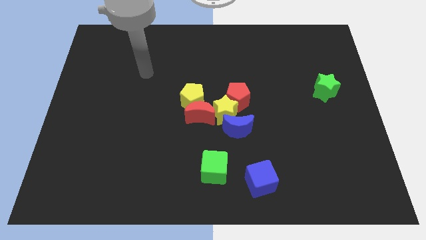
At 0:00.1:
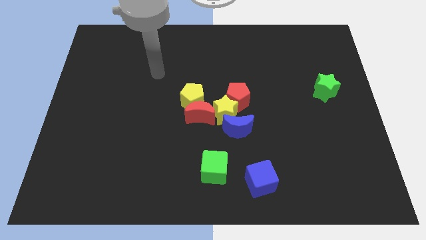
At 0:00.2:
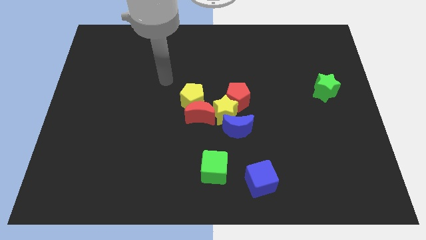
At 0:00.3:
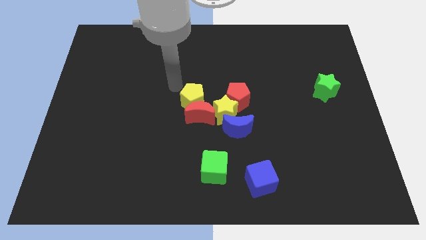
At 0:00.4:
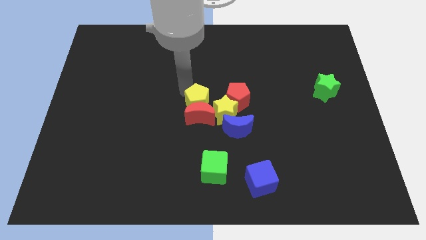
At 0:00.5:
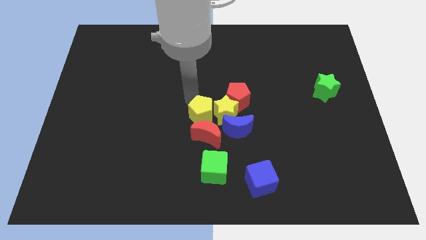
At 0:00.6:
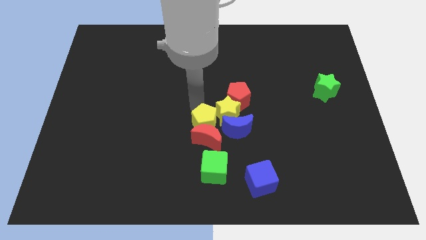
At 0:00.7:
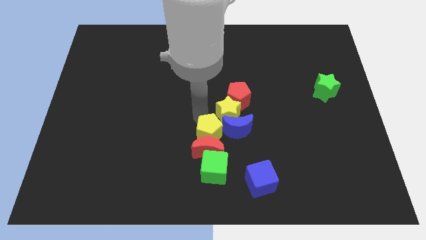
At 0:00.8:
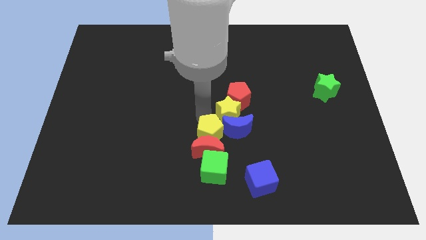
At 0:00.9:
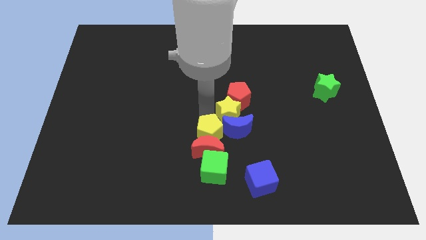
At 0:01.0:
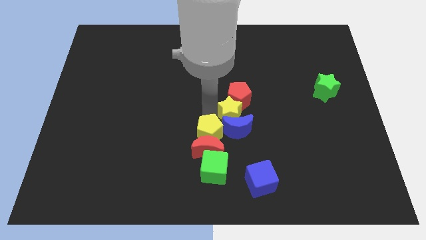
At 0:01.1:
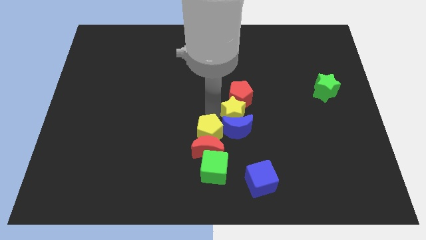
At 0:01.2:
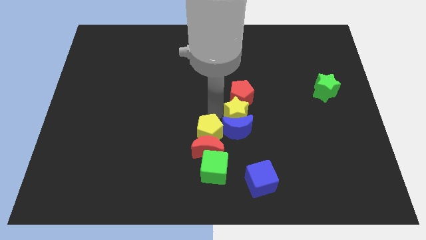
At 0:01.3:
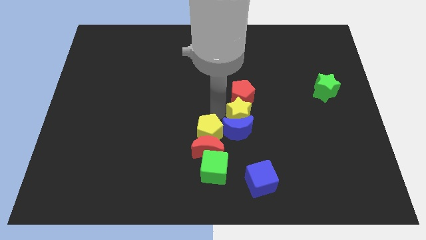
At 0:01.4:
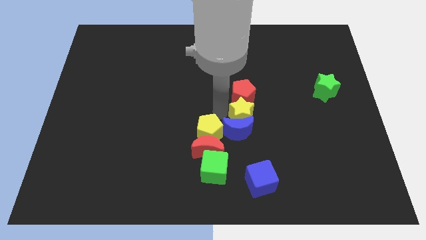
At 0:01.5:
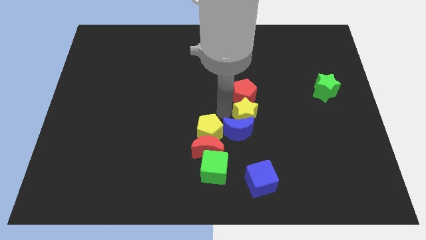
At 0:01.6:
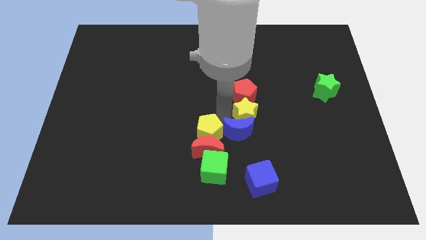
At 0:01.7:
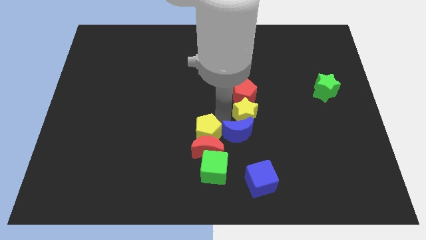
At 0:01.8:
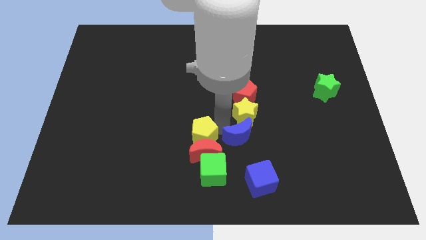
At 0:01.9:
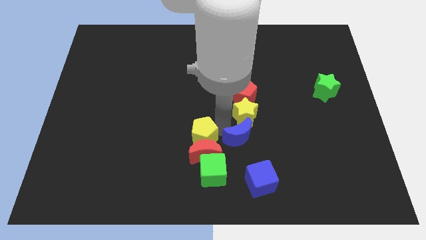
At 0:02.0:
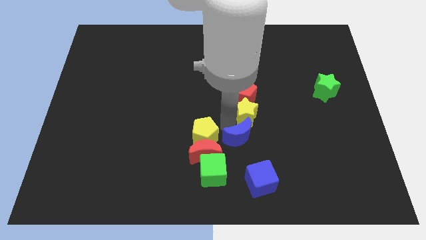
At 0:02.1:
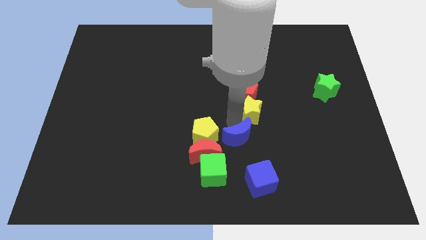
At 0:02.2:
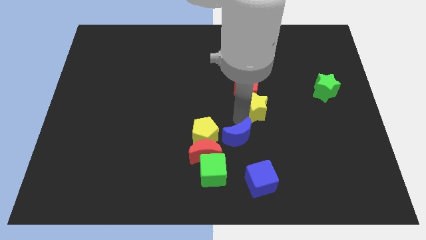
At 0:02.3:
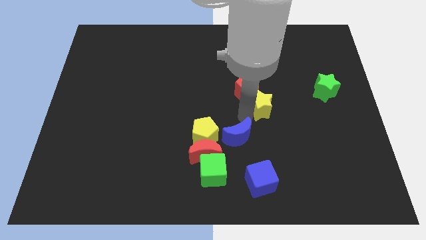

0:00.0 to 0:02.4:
move the yellow star away from the group

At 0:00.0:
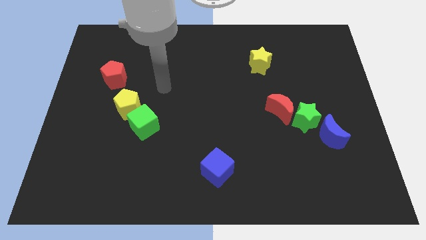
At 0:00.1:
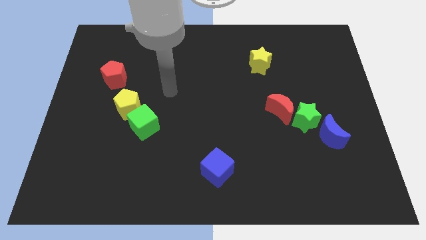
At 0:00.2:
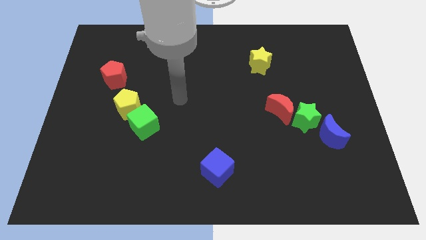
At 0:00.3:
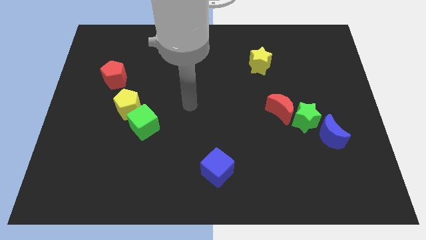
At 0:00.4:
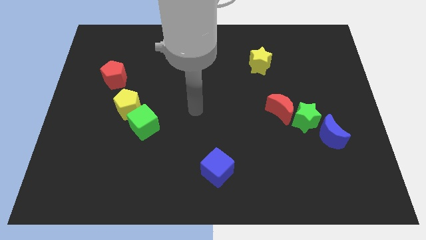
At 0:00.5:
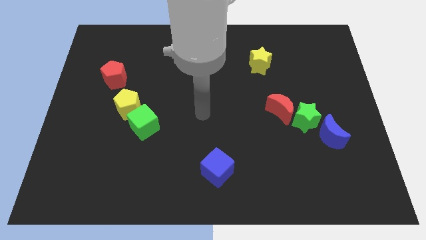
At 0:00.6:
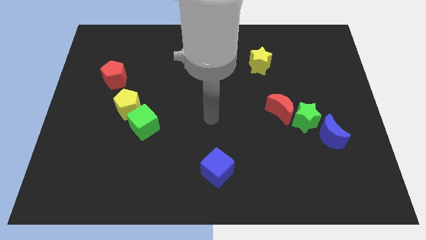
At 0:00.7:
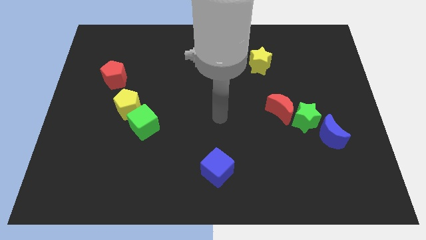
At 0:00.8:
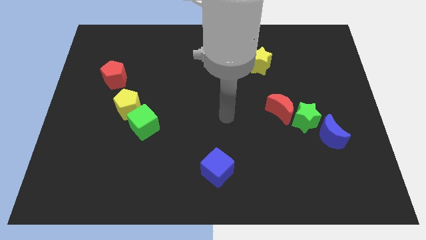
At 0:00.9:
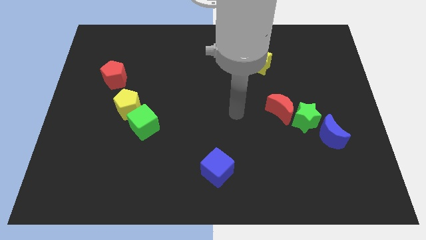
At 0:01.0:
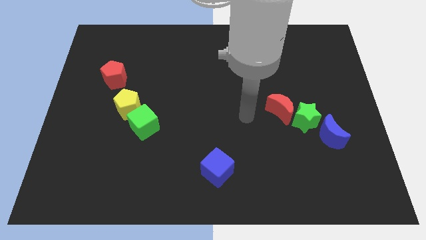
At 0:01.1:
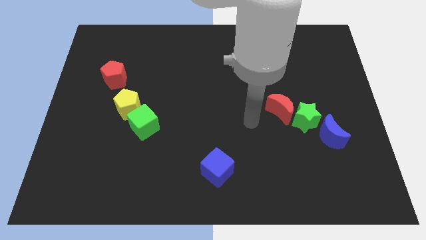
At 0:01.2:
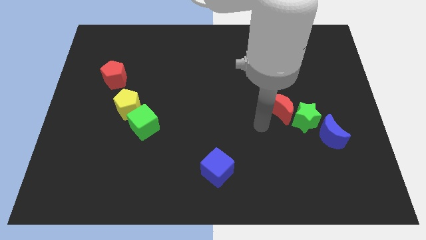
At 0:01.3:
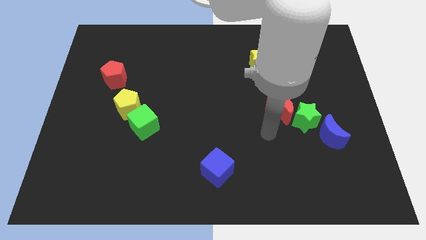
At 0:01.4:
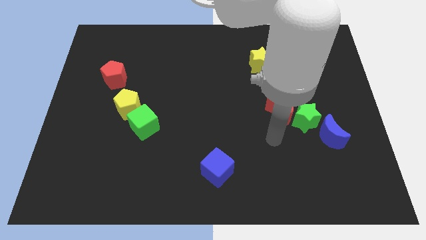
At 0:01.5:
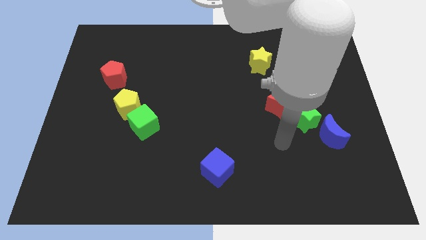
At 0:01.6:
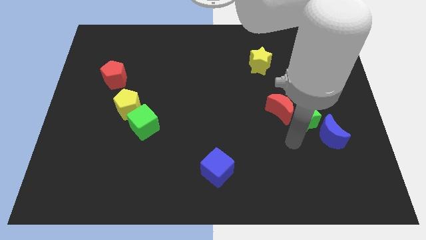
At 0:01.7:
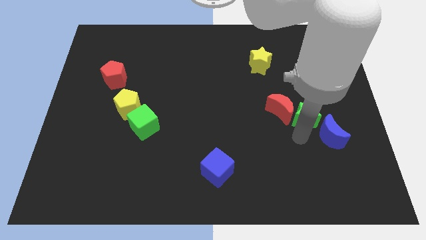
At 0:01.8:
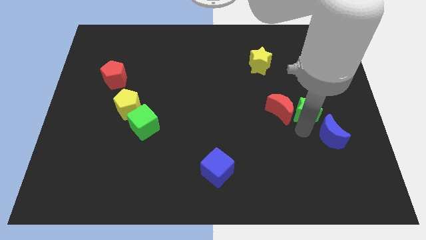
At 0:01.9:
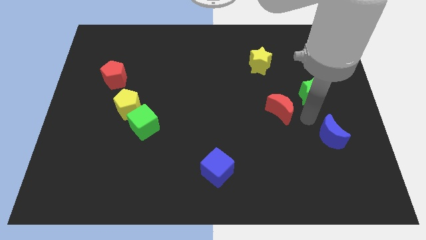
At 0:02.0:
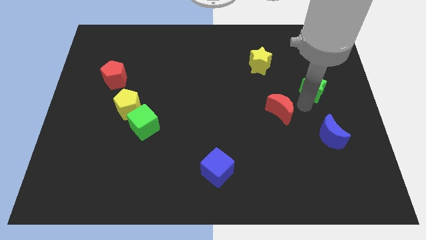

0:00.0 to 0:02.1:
separate the red moon from the green star

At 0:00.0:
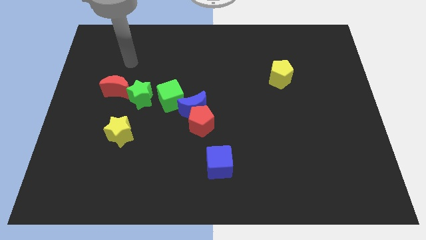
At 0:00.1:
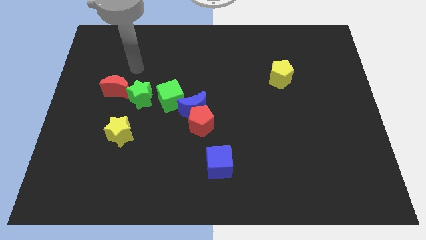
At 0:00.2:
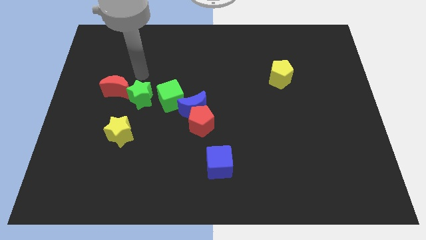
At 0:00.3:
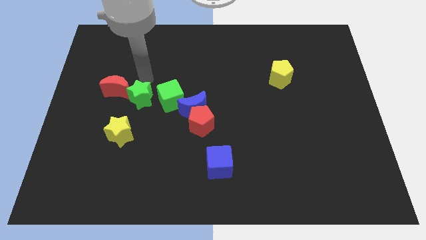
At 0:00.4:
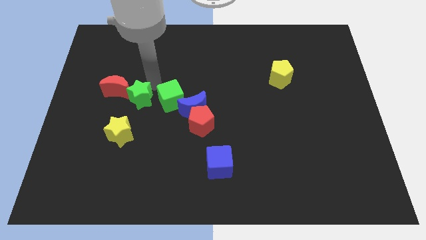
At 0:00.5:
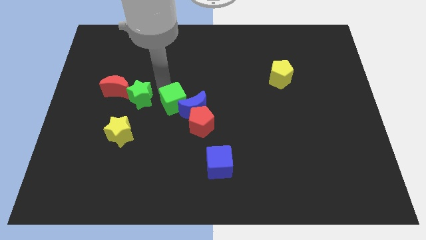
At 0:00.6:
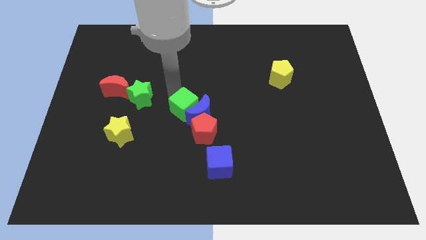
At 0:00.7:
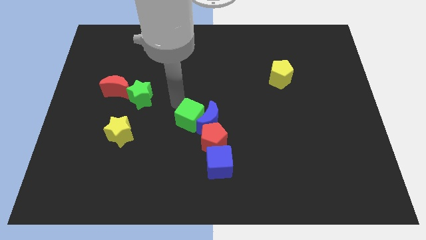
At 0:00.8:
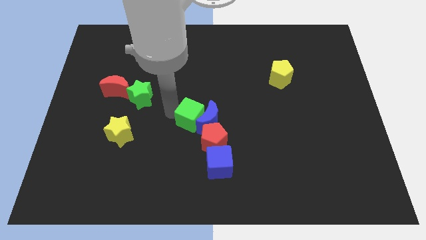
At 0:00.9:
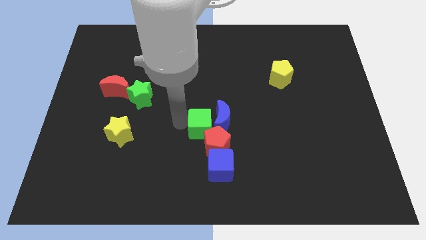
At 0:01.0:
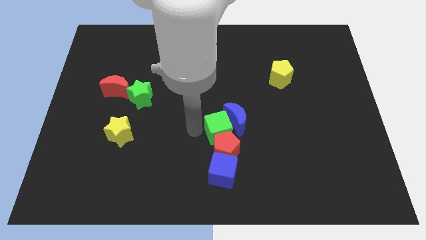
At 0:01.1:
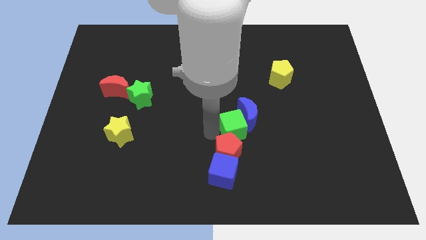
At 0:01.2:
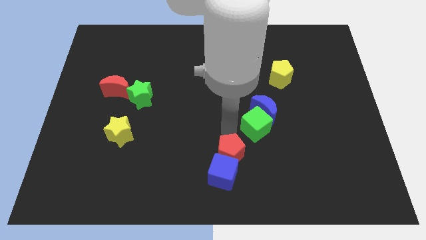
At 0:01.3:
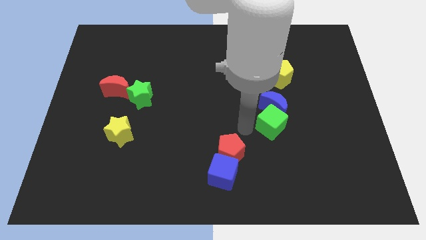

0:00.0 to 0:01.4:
separate the blue moon from the red pentagon and green cube

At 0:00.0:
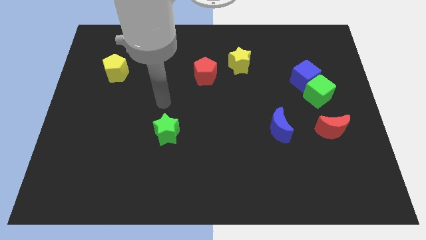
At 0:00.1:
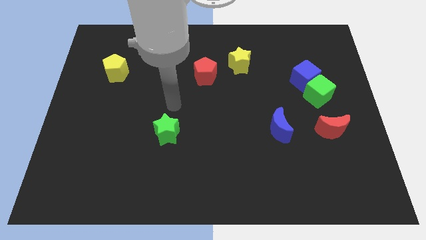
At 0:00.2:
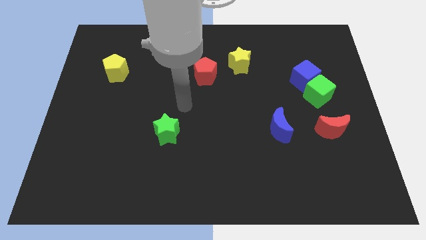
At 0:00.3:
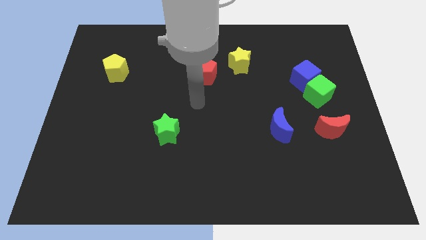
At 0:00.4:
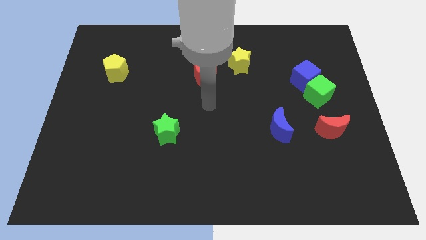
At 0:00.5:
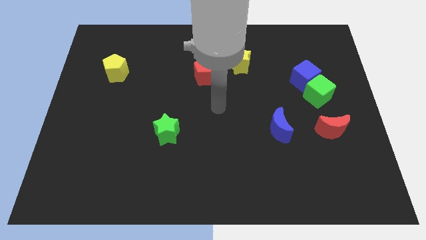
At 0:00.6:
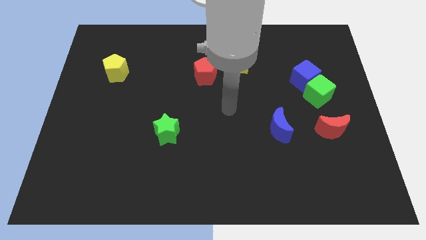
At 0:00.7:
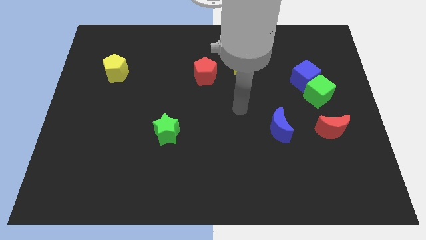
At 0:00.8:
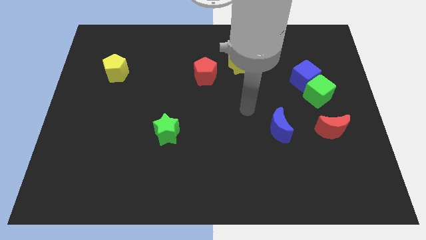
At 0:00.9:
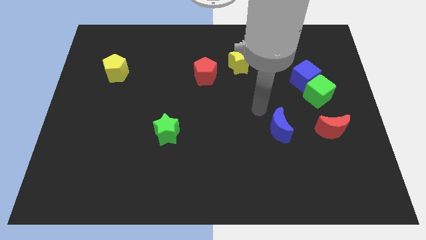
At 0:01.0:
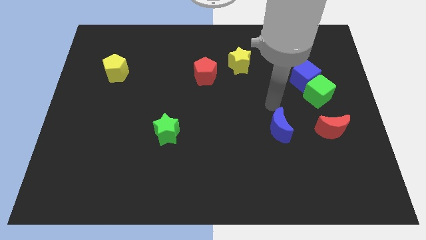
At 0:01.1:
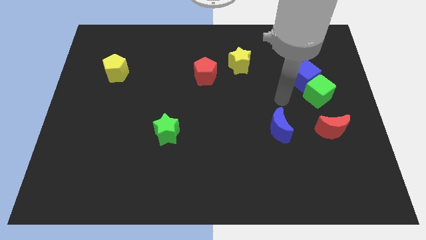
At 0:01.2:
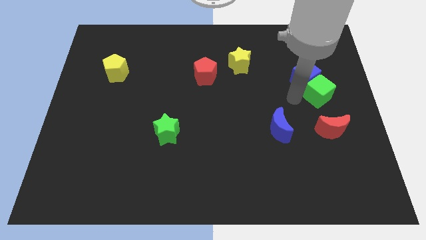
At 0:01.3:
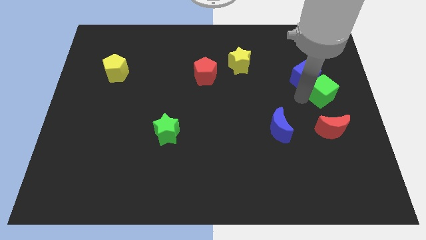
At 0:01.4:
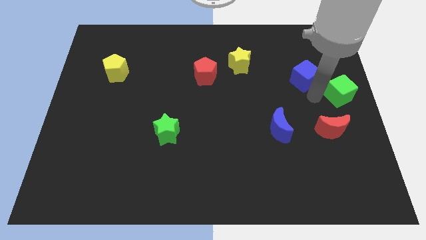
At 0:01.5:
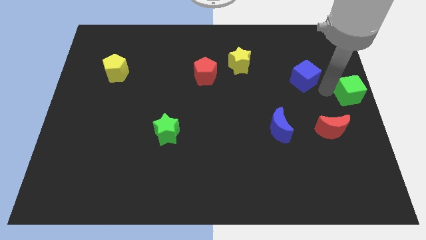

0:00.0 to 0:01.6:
pull the blue cube apart from the green cube

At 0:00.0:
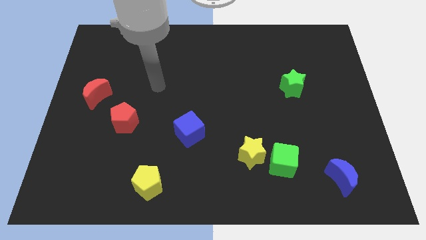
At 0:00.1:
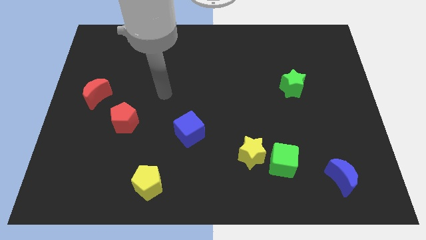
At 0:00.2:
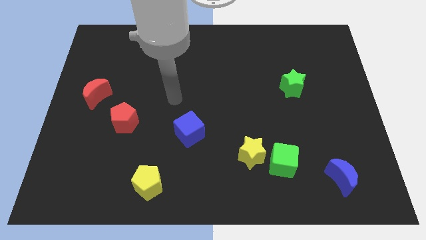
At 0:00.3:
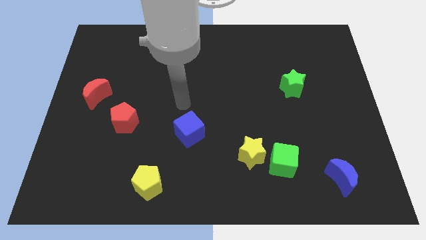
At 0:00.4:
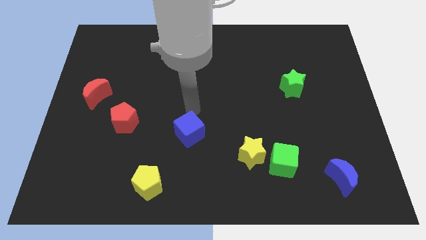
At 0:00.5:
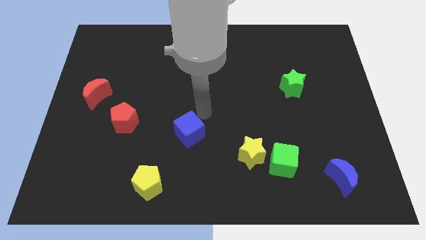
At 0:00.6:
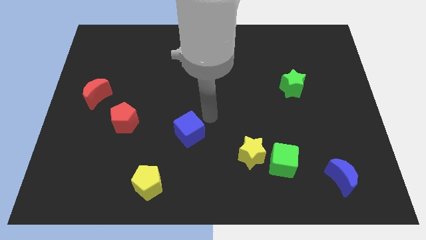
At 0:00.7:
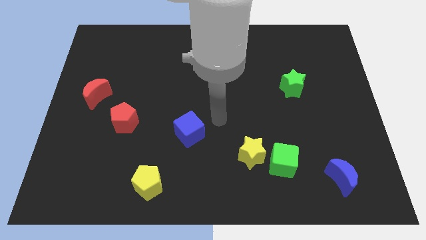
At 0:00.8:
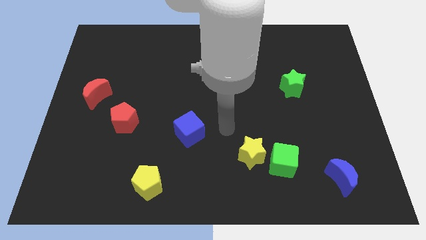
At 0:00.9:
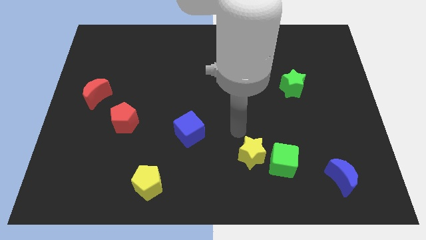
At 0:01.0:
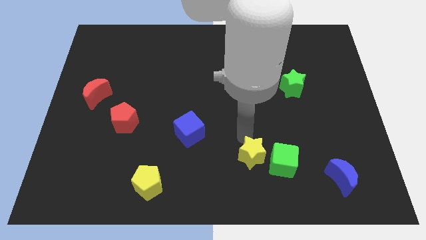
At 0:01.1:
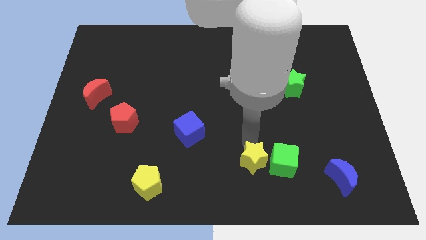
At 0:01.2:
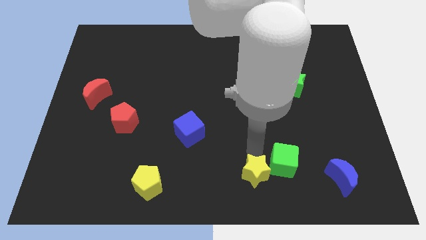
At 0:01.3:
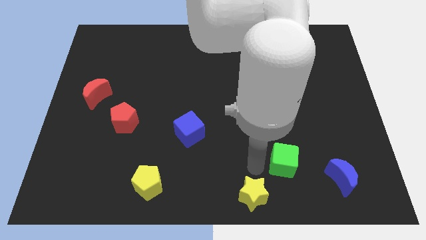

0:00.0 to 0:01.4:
pull the green cube apart from the yellow star

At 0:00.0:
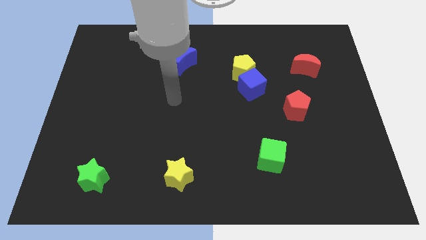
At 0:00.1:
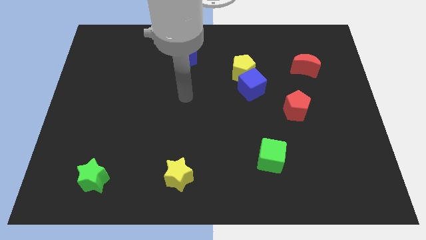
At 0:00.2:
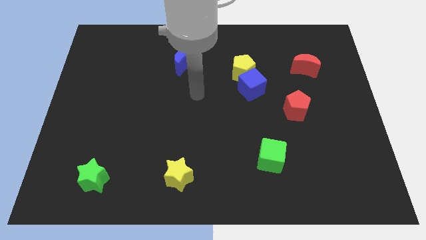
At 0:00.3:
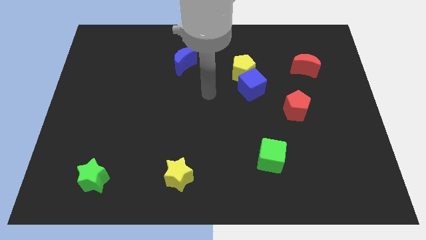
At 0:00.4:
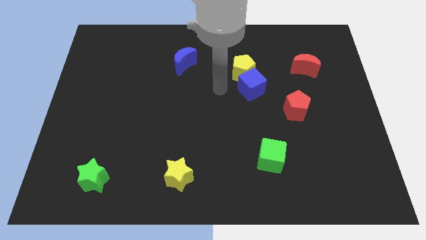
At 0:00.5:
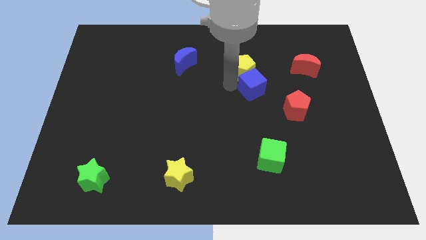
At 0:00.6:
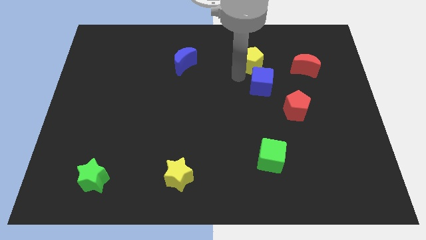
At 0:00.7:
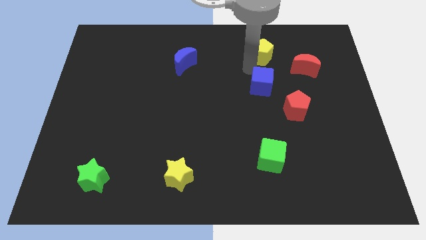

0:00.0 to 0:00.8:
separate the blue cube from the yellow pentagon
